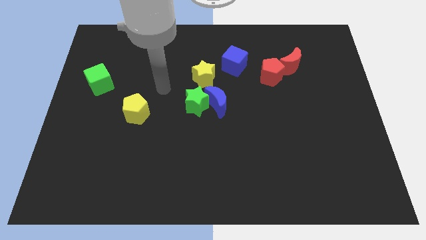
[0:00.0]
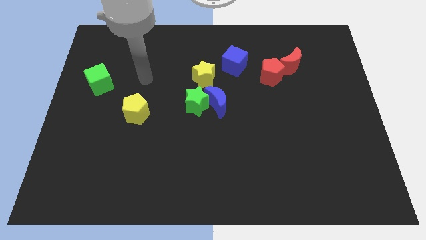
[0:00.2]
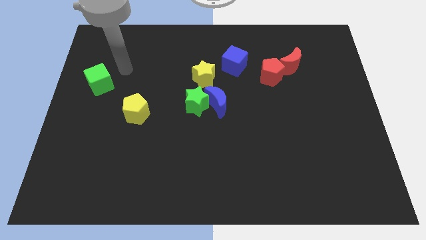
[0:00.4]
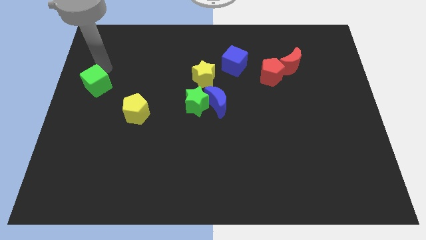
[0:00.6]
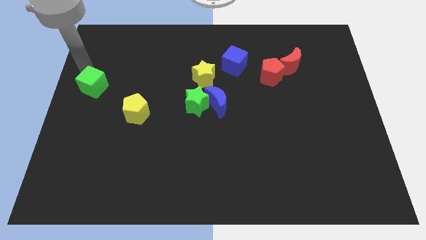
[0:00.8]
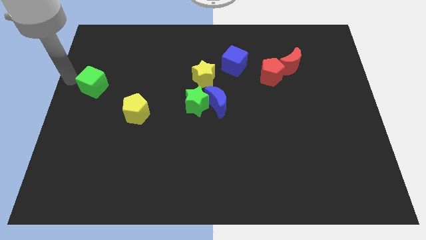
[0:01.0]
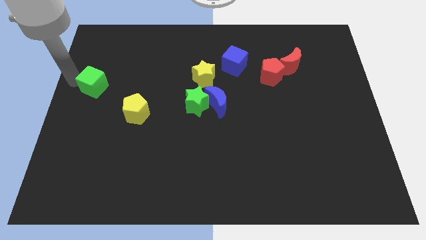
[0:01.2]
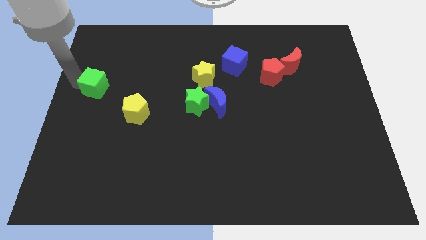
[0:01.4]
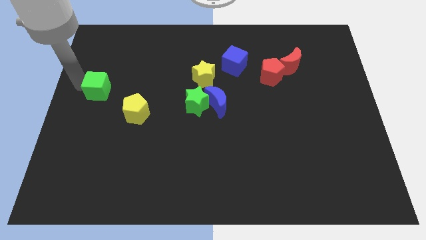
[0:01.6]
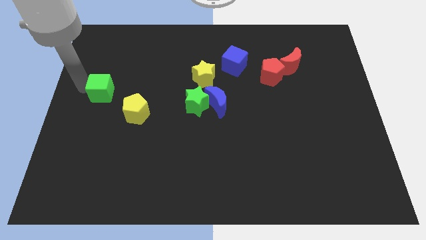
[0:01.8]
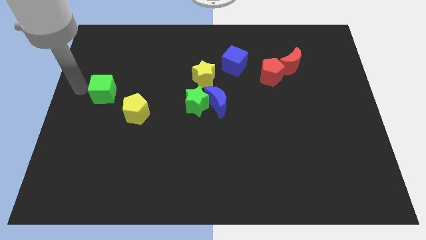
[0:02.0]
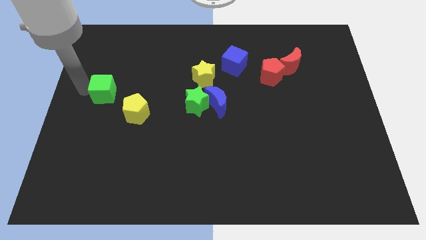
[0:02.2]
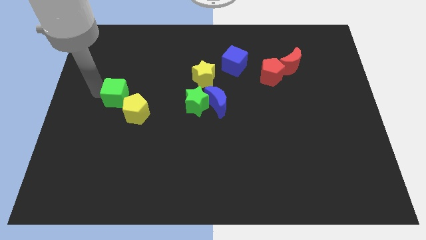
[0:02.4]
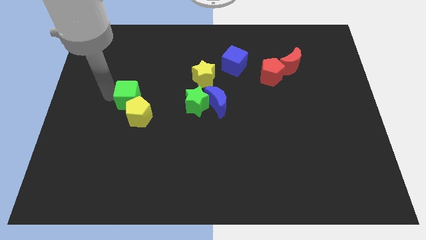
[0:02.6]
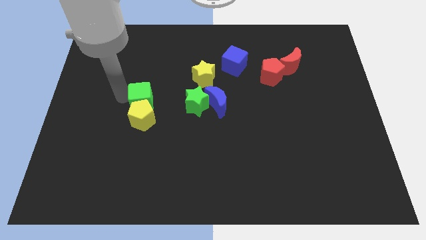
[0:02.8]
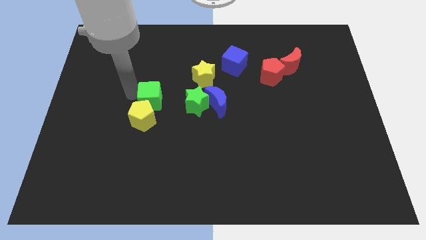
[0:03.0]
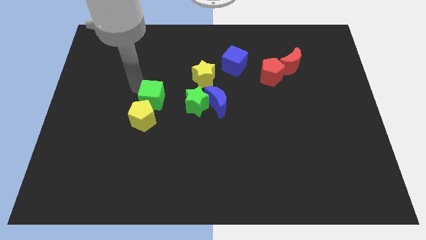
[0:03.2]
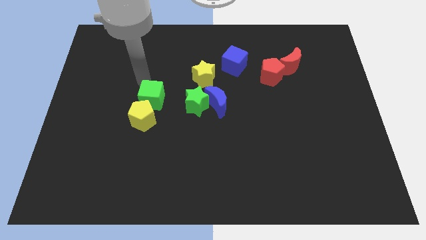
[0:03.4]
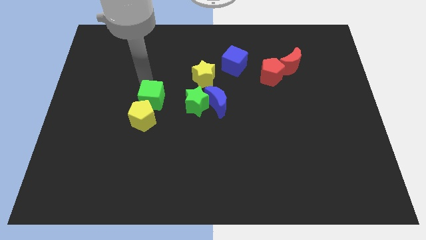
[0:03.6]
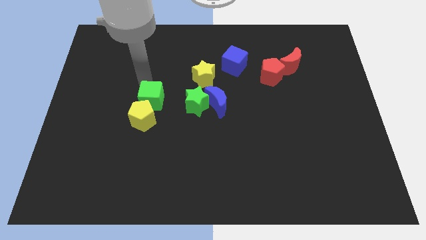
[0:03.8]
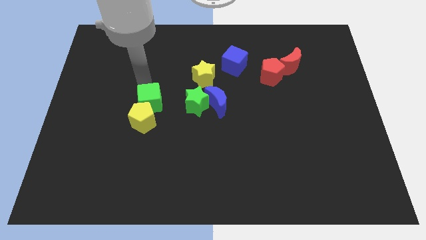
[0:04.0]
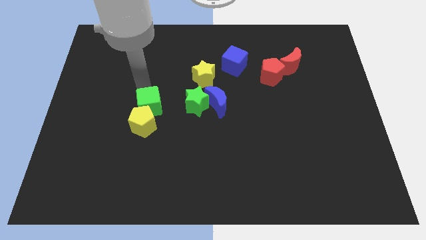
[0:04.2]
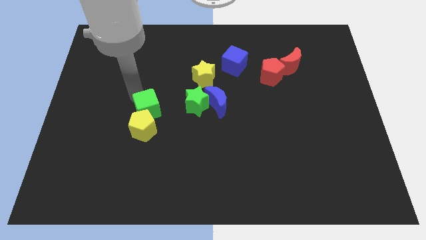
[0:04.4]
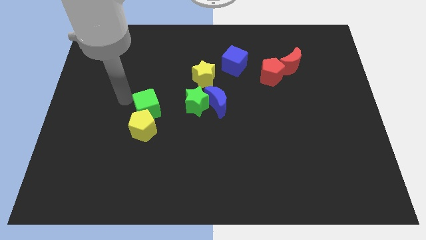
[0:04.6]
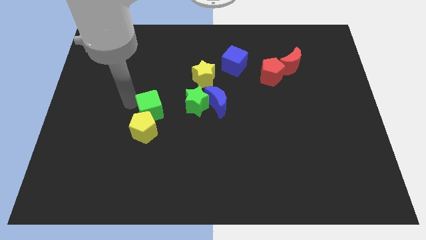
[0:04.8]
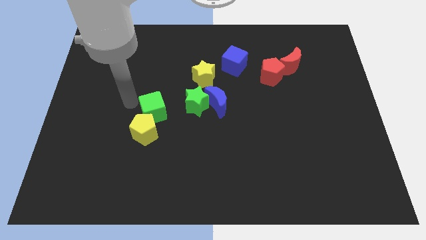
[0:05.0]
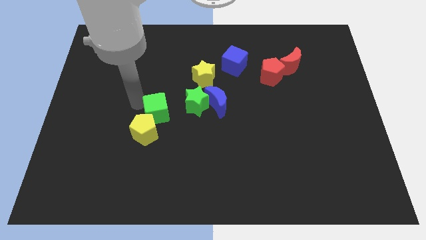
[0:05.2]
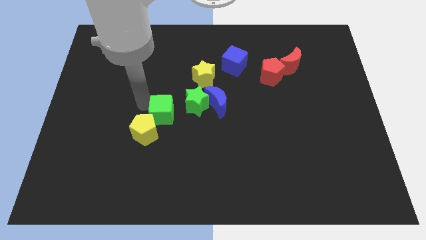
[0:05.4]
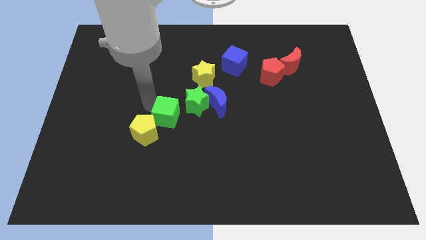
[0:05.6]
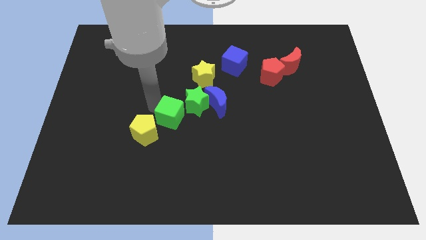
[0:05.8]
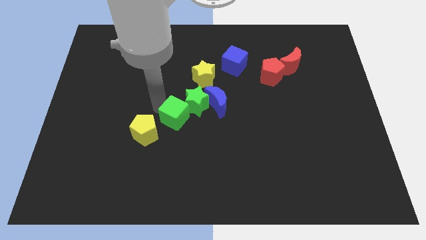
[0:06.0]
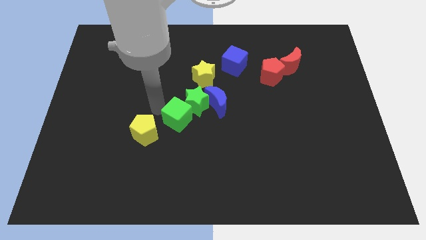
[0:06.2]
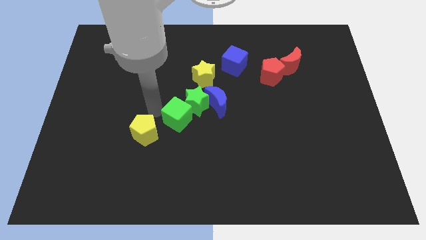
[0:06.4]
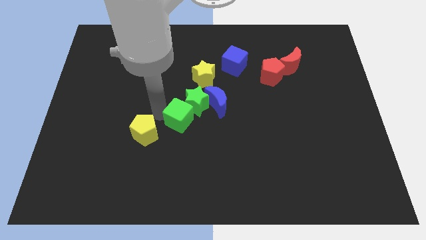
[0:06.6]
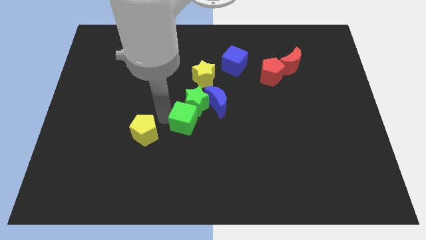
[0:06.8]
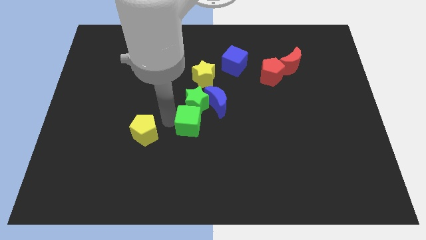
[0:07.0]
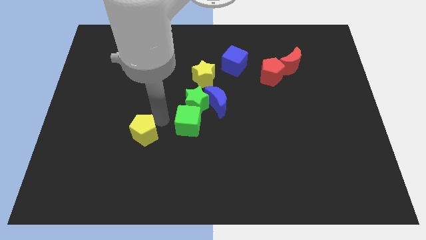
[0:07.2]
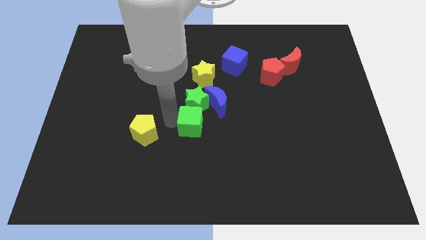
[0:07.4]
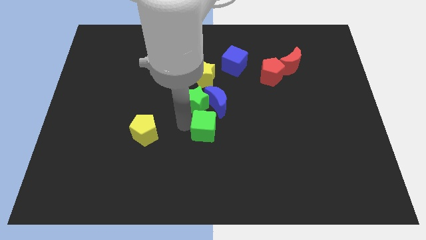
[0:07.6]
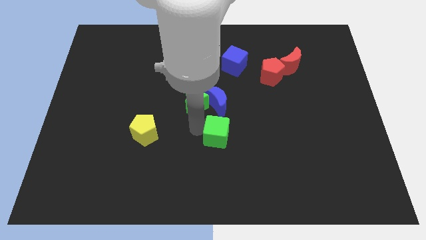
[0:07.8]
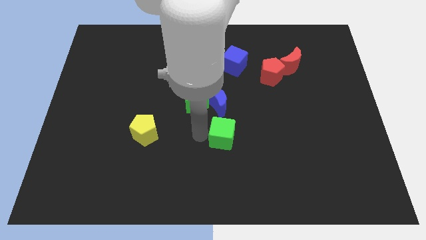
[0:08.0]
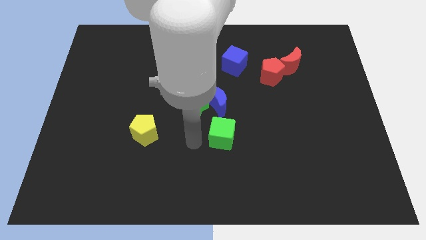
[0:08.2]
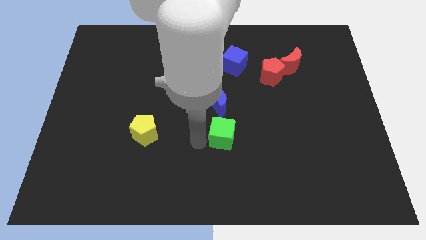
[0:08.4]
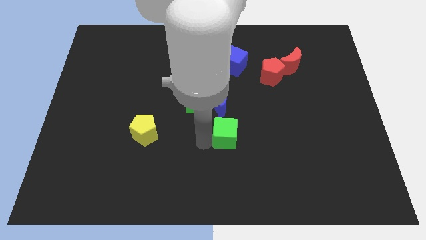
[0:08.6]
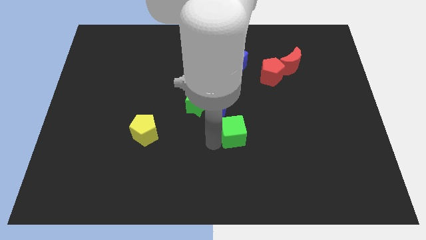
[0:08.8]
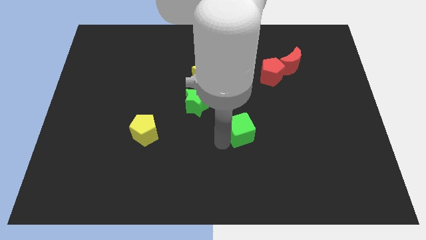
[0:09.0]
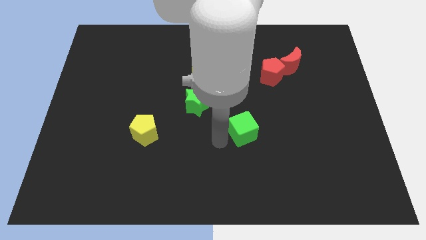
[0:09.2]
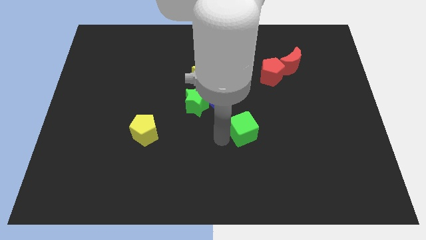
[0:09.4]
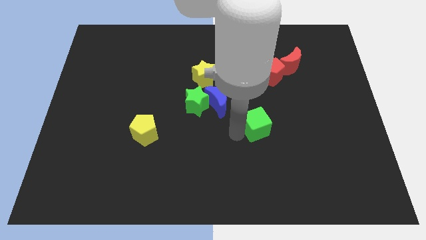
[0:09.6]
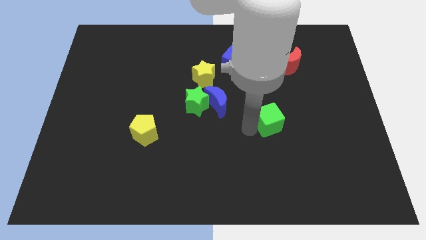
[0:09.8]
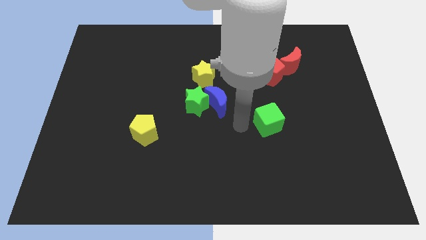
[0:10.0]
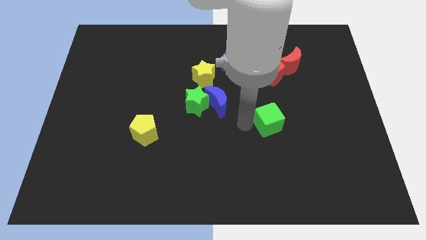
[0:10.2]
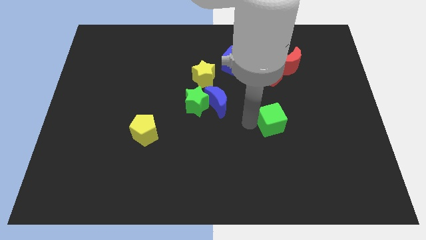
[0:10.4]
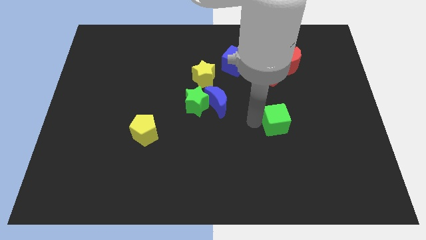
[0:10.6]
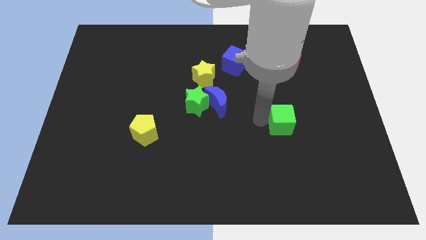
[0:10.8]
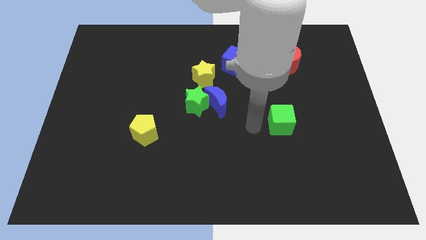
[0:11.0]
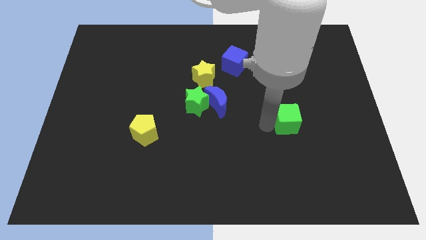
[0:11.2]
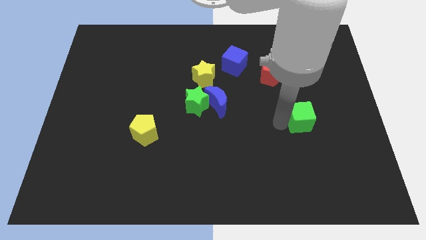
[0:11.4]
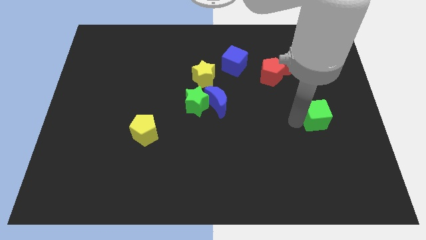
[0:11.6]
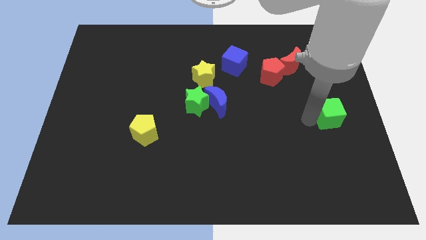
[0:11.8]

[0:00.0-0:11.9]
push the green cube to the center right
